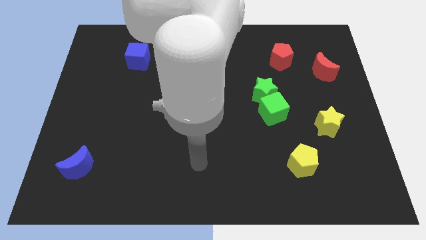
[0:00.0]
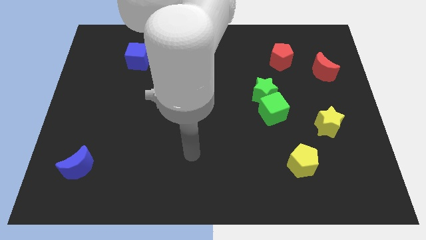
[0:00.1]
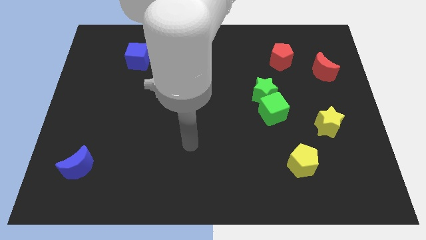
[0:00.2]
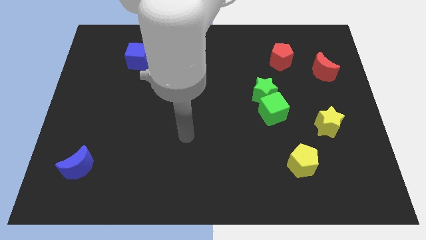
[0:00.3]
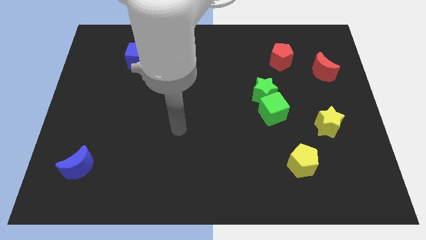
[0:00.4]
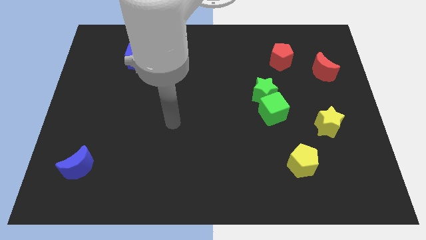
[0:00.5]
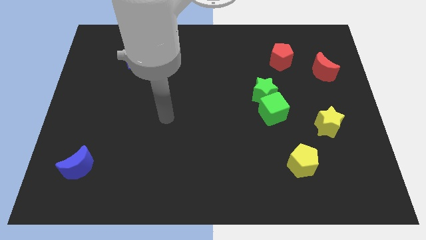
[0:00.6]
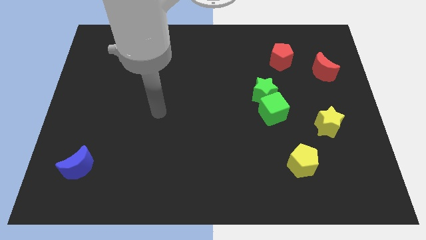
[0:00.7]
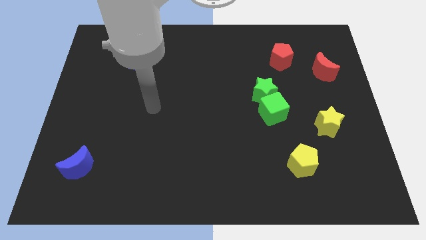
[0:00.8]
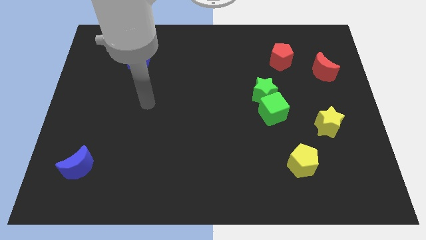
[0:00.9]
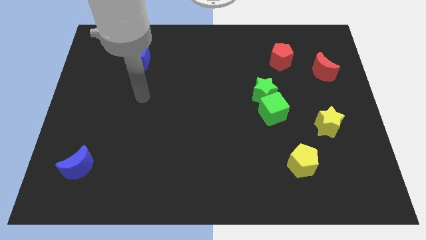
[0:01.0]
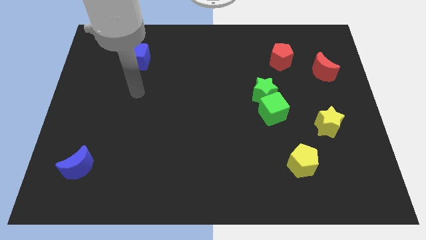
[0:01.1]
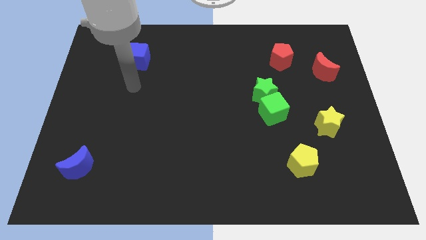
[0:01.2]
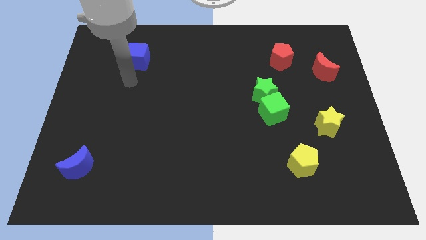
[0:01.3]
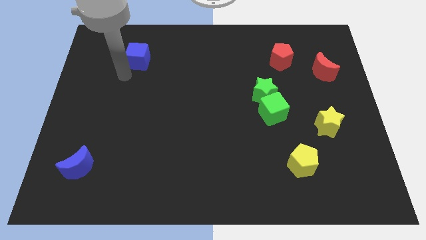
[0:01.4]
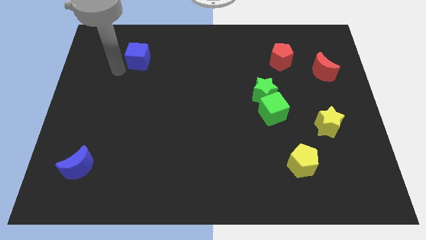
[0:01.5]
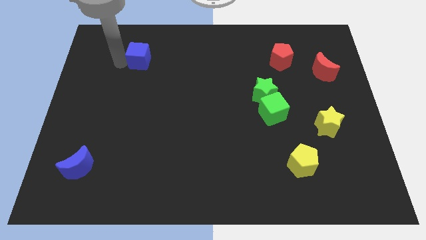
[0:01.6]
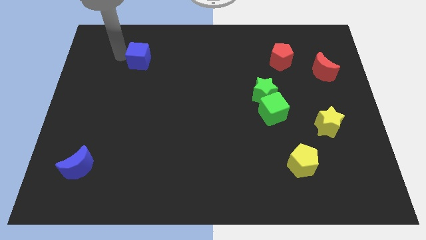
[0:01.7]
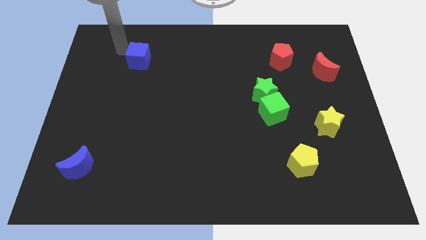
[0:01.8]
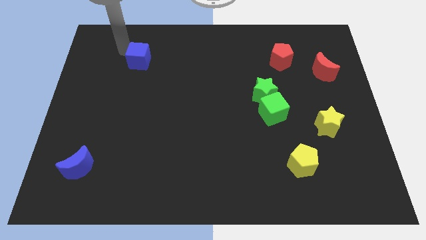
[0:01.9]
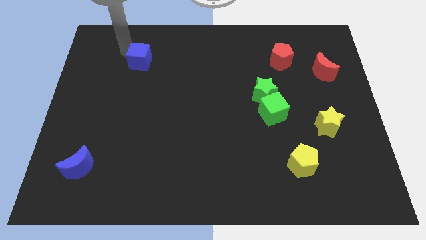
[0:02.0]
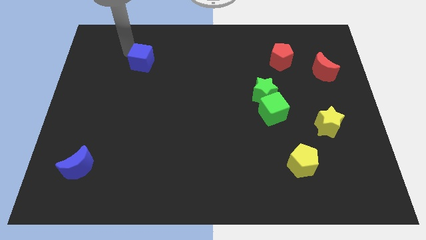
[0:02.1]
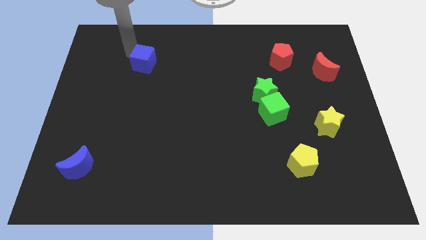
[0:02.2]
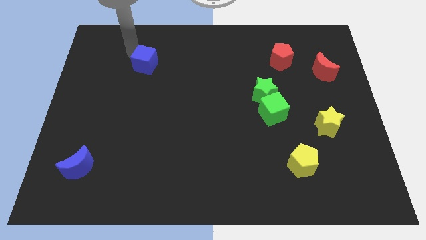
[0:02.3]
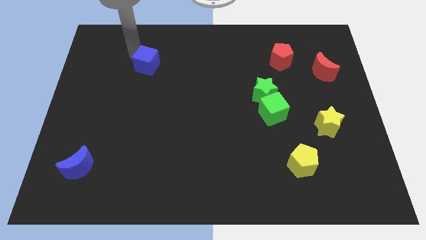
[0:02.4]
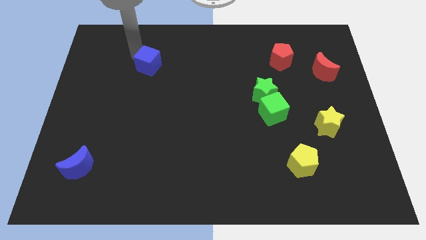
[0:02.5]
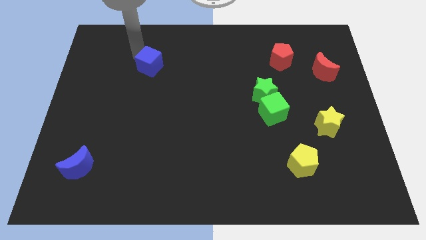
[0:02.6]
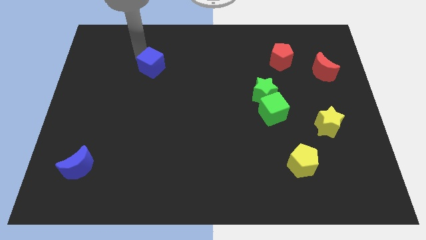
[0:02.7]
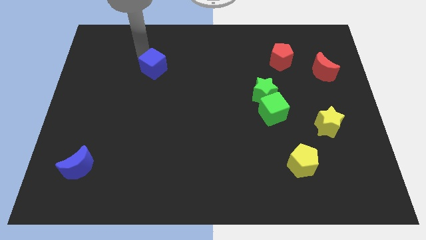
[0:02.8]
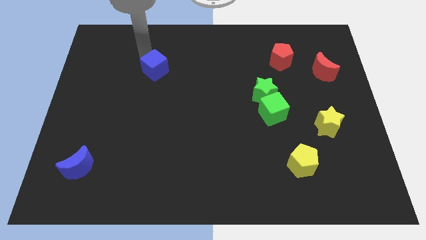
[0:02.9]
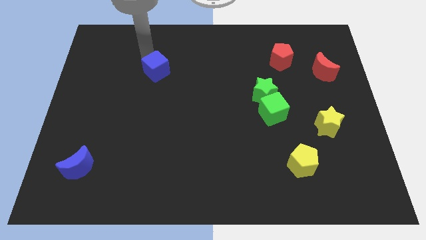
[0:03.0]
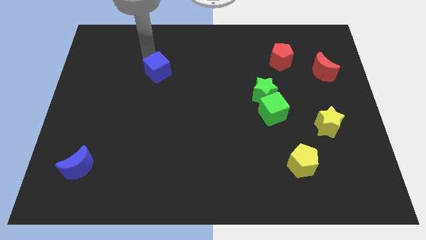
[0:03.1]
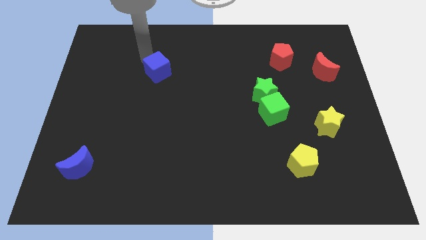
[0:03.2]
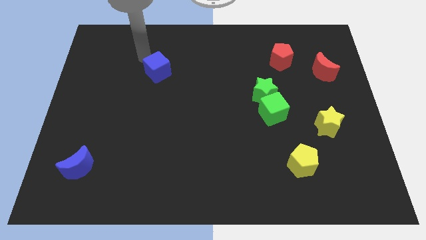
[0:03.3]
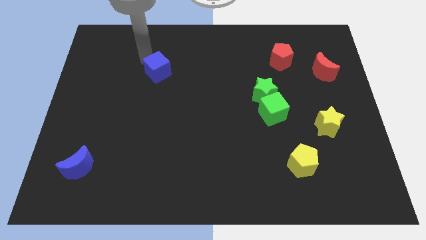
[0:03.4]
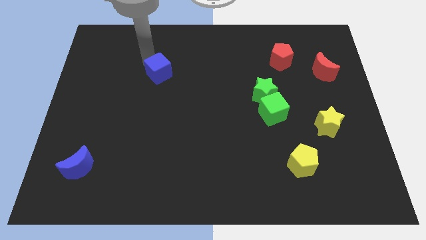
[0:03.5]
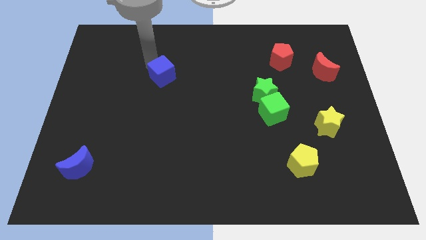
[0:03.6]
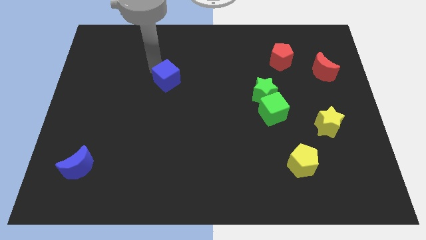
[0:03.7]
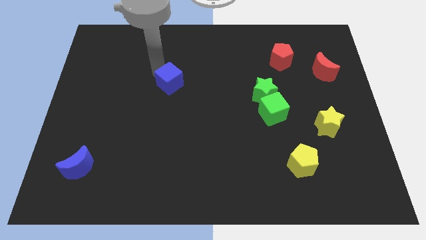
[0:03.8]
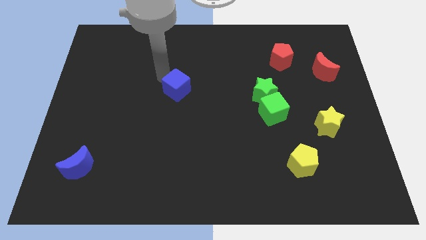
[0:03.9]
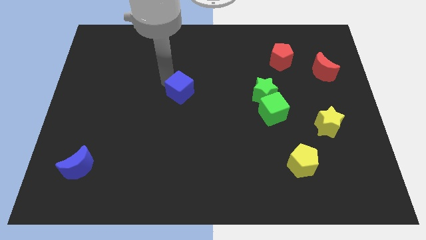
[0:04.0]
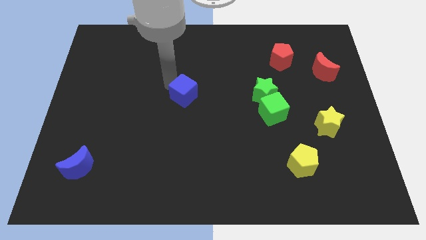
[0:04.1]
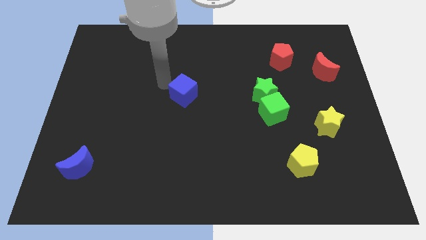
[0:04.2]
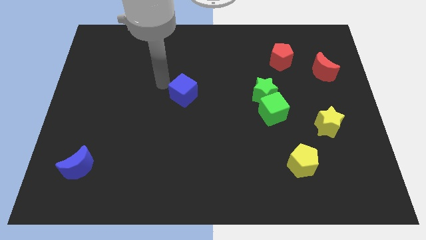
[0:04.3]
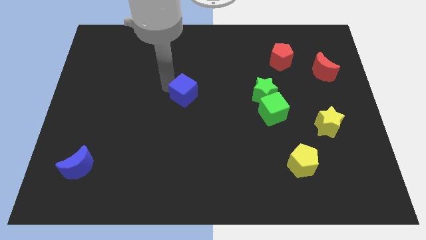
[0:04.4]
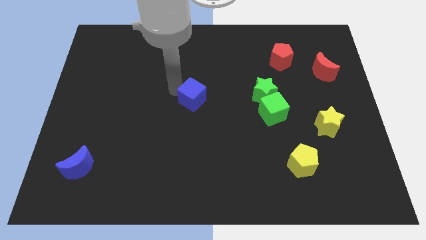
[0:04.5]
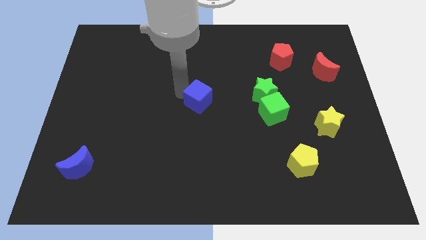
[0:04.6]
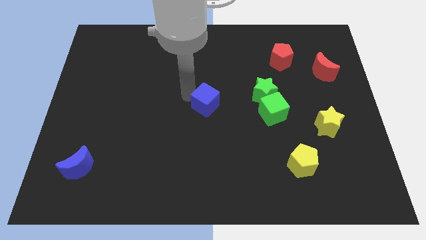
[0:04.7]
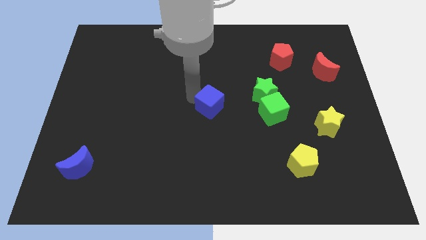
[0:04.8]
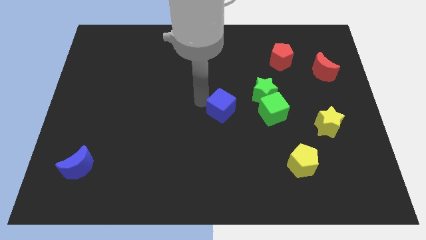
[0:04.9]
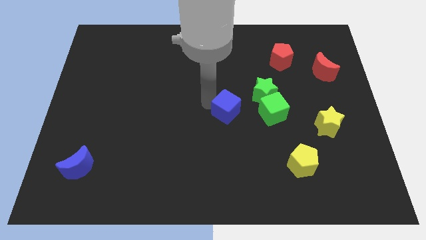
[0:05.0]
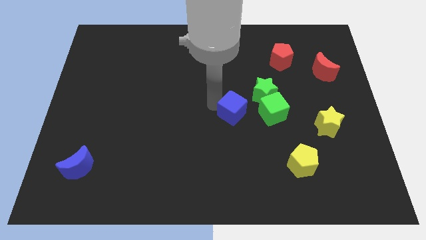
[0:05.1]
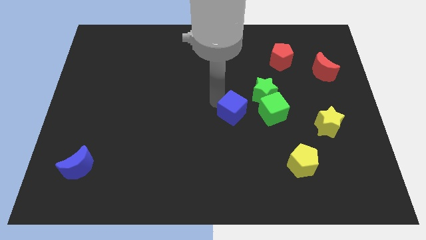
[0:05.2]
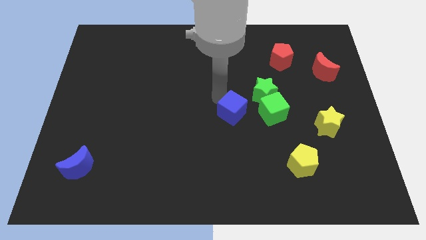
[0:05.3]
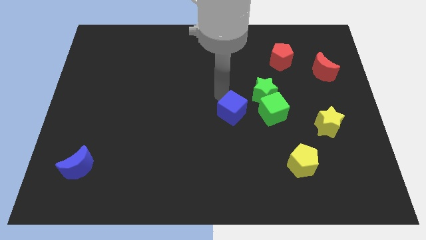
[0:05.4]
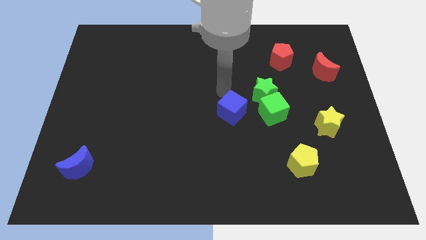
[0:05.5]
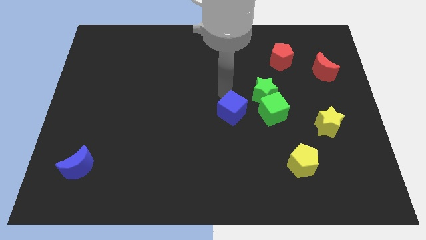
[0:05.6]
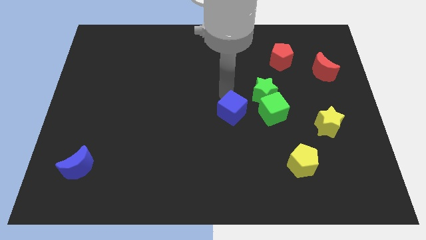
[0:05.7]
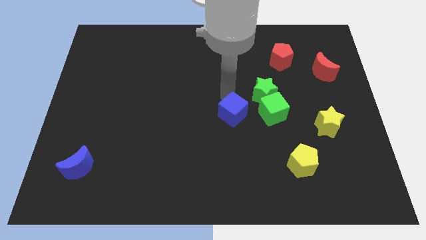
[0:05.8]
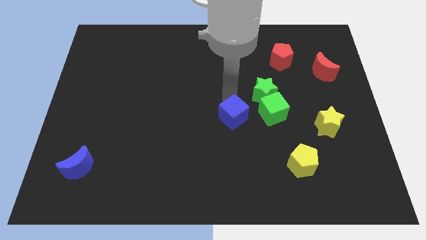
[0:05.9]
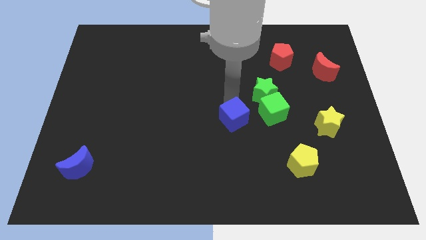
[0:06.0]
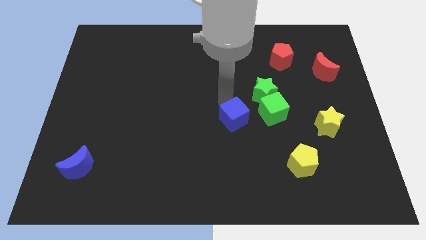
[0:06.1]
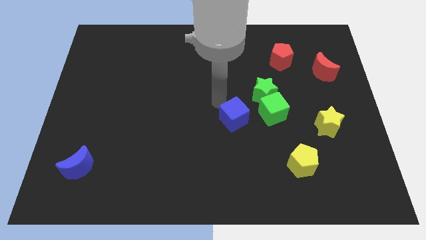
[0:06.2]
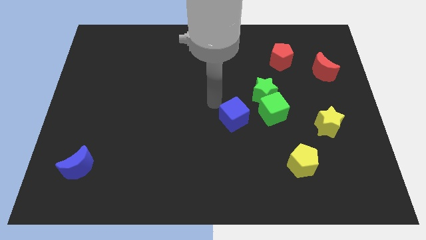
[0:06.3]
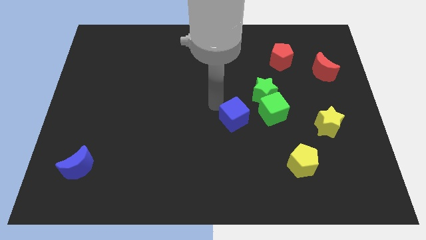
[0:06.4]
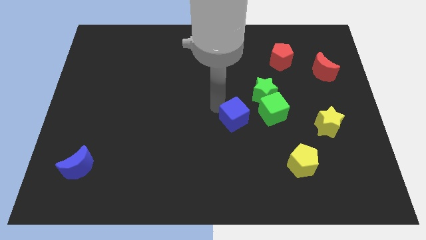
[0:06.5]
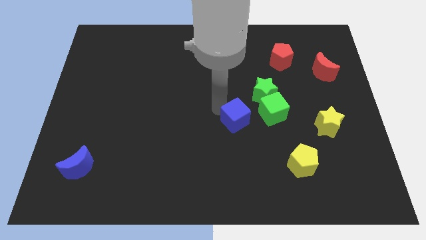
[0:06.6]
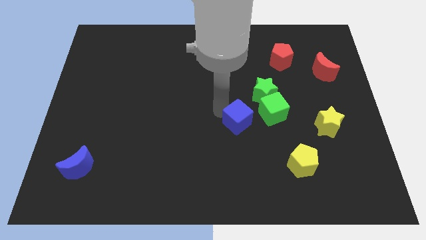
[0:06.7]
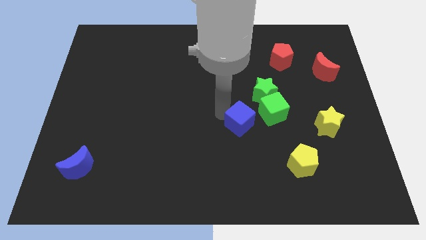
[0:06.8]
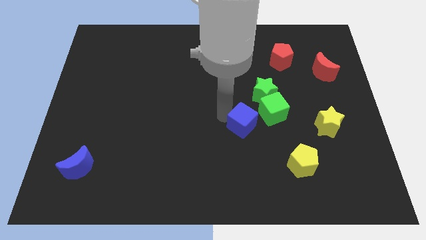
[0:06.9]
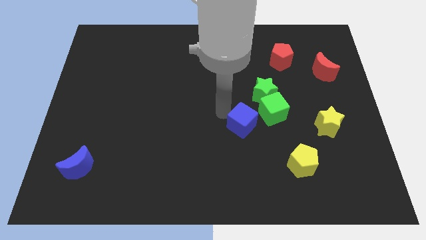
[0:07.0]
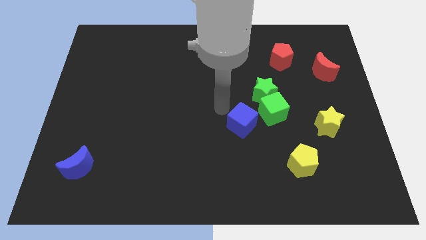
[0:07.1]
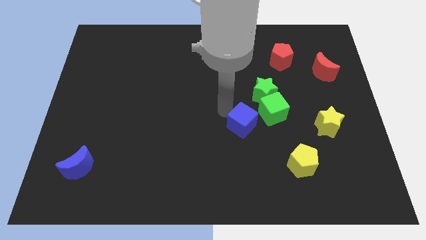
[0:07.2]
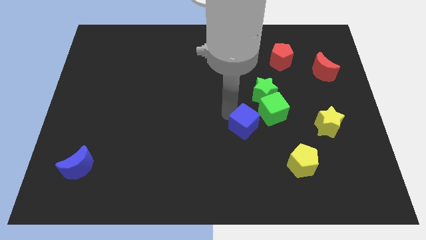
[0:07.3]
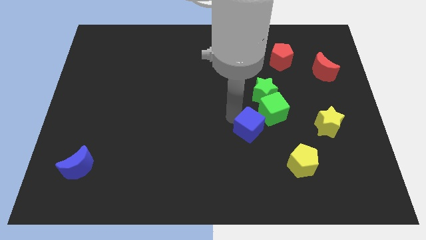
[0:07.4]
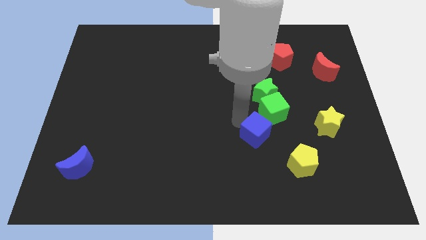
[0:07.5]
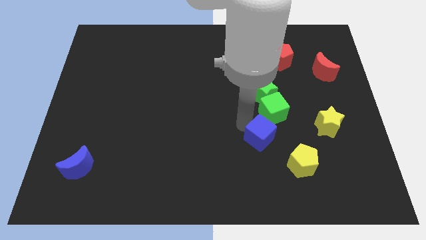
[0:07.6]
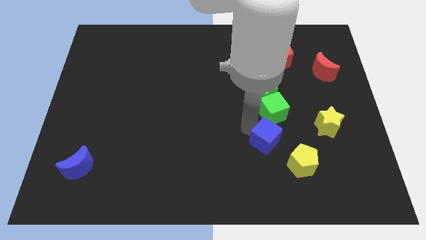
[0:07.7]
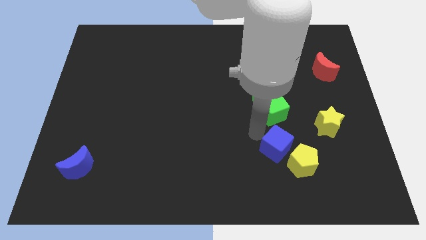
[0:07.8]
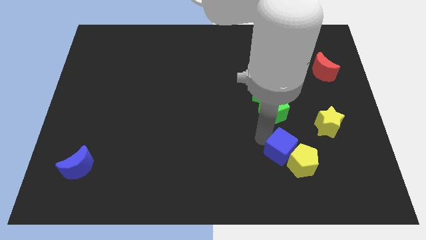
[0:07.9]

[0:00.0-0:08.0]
put the blue cube to the yellow pentagon
